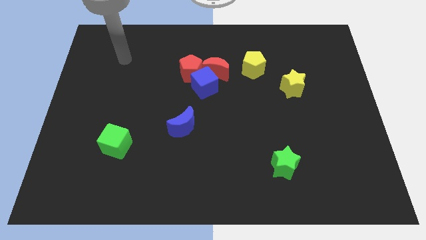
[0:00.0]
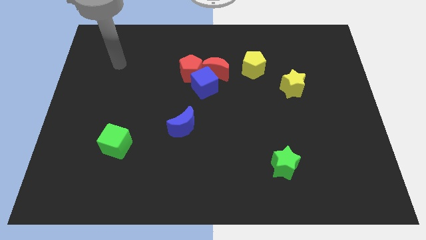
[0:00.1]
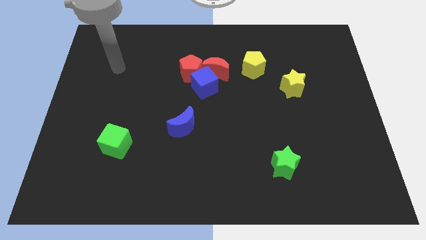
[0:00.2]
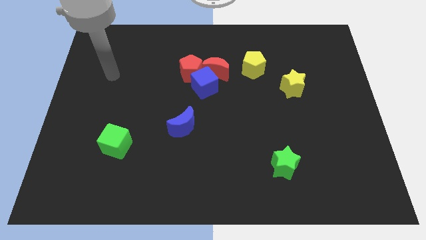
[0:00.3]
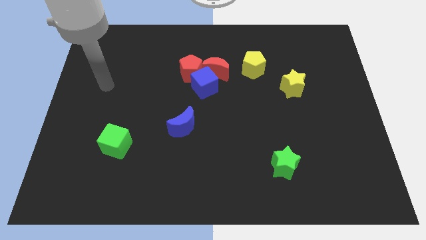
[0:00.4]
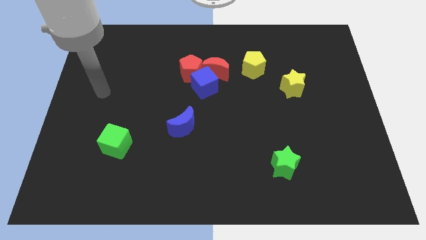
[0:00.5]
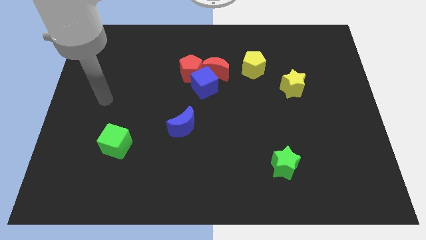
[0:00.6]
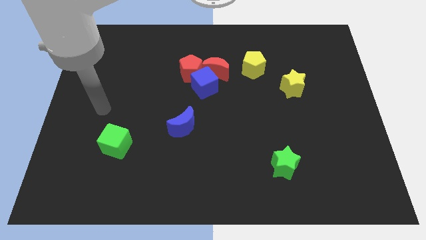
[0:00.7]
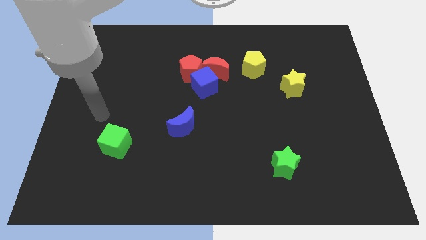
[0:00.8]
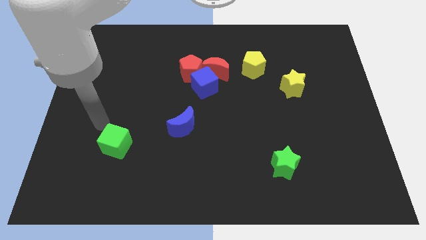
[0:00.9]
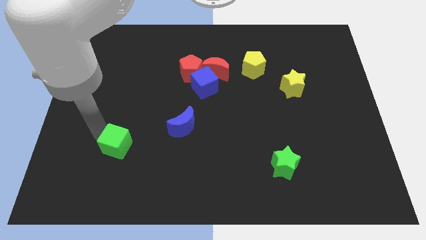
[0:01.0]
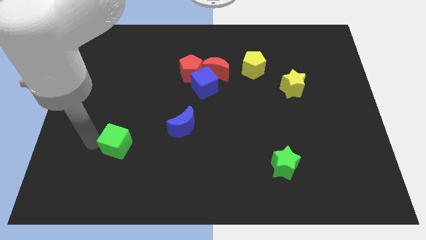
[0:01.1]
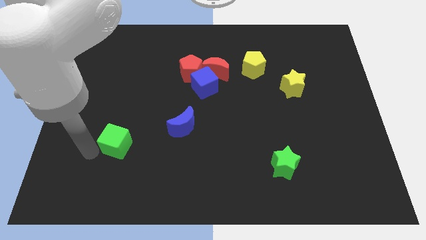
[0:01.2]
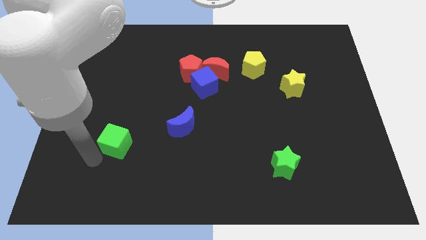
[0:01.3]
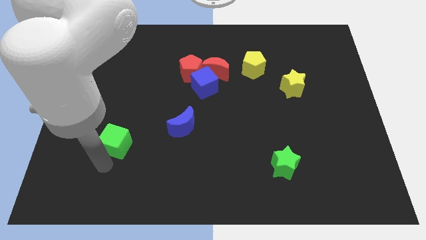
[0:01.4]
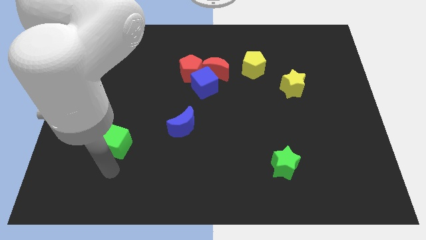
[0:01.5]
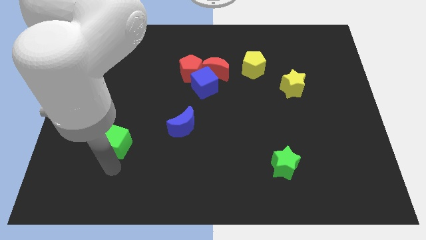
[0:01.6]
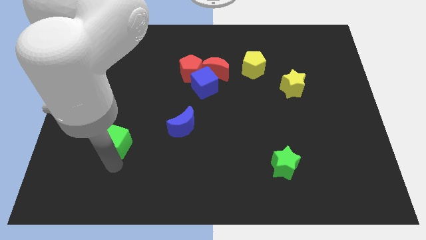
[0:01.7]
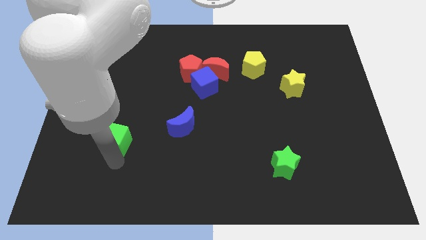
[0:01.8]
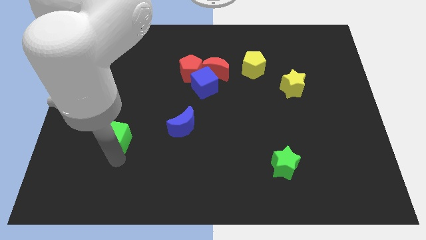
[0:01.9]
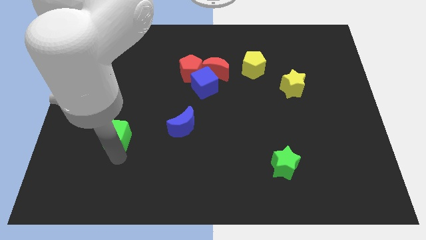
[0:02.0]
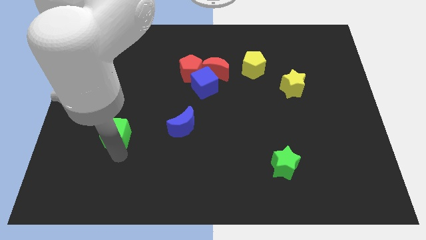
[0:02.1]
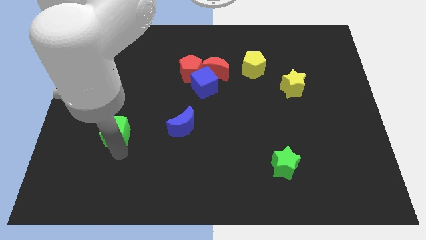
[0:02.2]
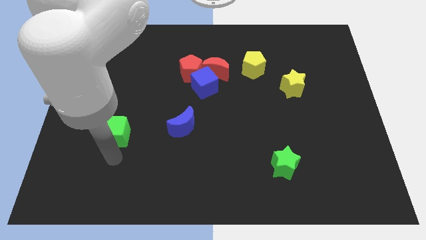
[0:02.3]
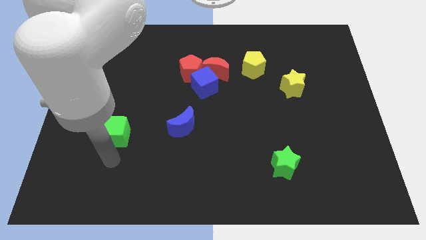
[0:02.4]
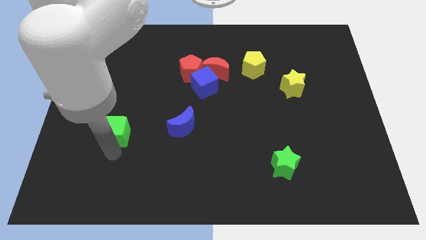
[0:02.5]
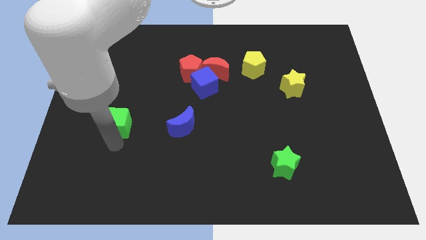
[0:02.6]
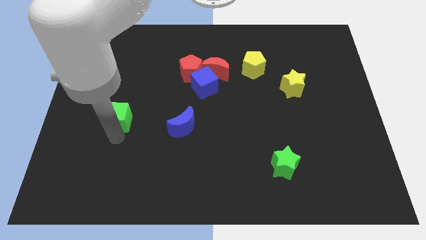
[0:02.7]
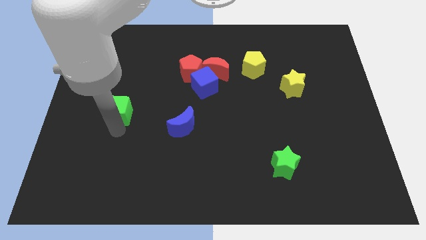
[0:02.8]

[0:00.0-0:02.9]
slide the green cube upwards a little bit

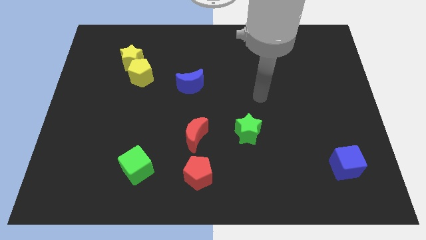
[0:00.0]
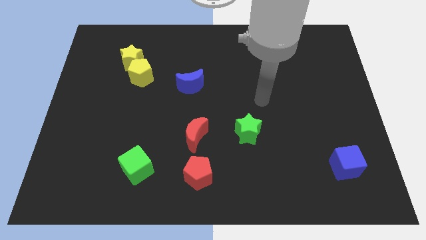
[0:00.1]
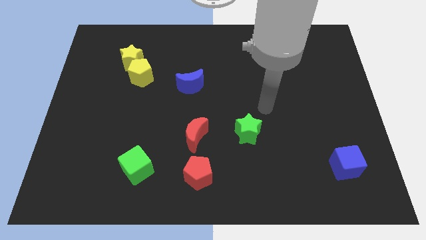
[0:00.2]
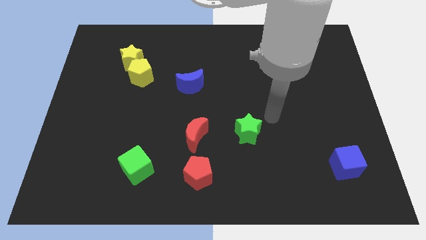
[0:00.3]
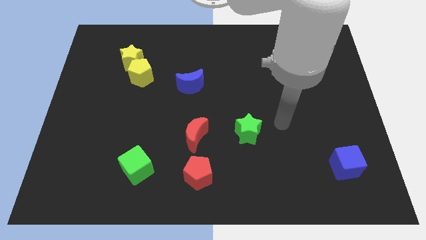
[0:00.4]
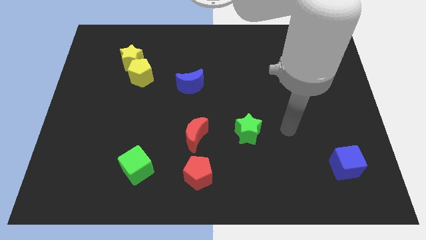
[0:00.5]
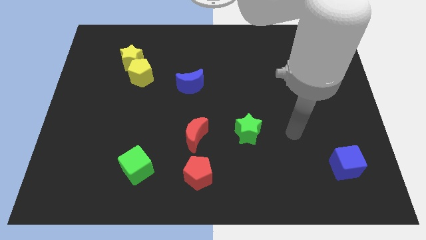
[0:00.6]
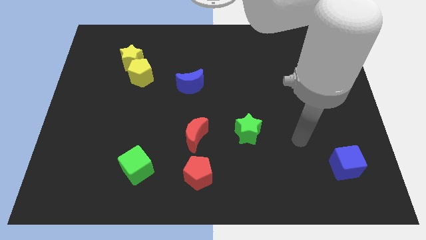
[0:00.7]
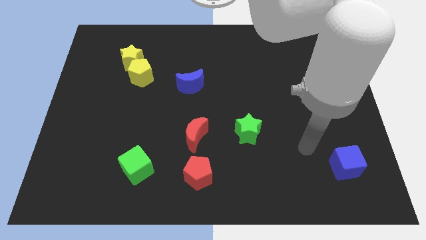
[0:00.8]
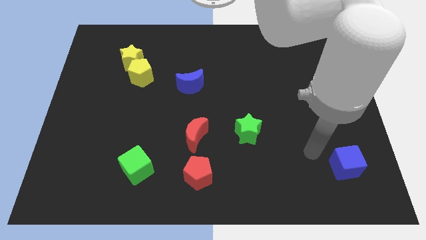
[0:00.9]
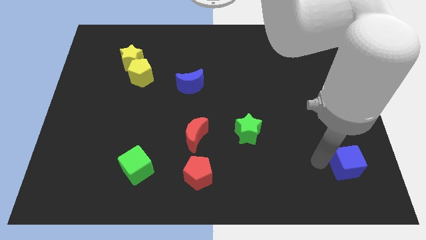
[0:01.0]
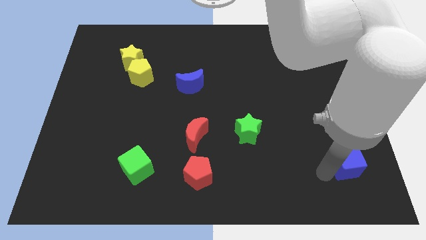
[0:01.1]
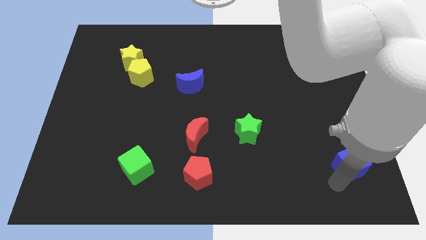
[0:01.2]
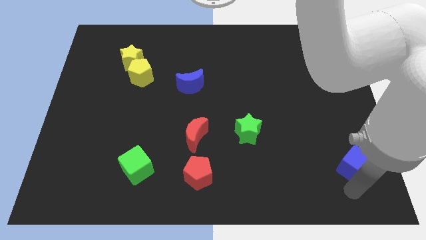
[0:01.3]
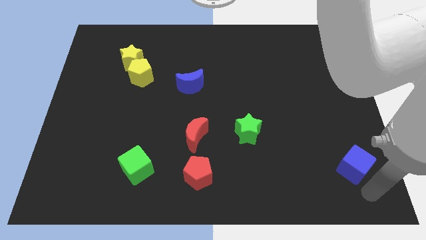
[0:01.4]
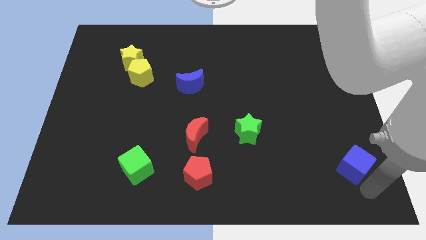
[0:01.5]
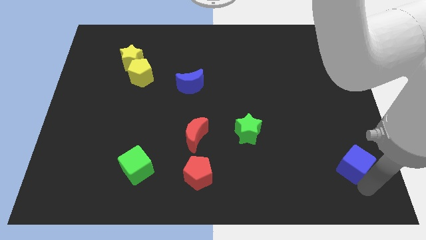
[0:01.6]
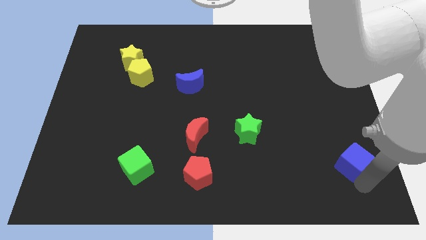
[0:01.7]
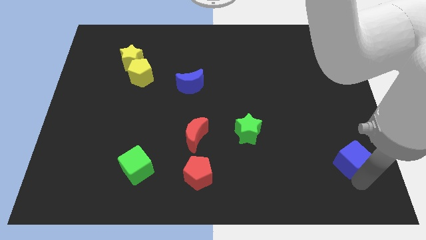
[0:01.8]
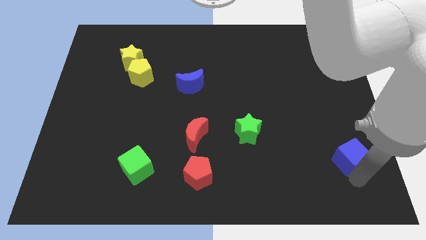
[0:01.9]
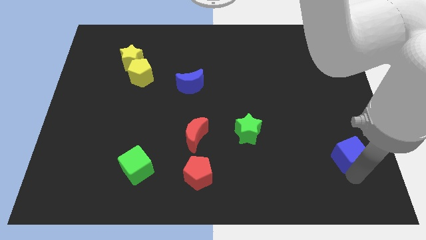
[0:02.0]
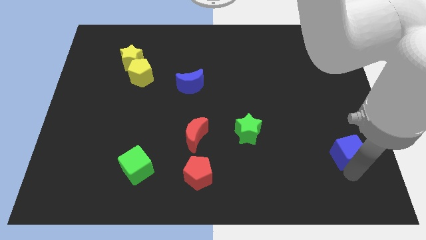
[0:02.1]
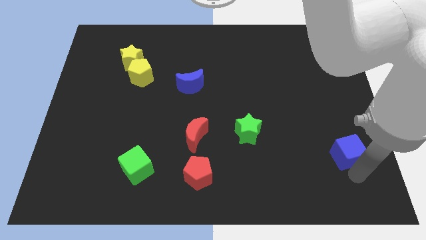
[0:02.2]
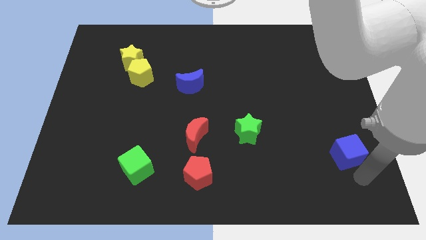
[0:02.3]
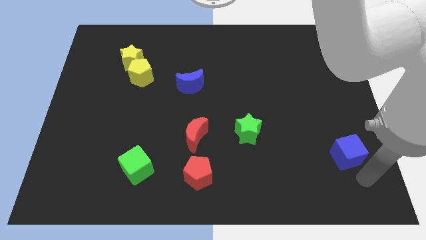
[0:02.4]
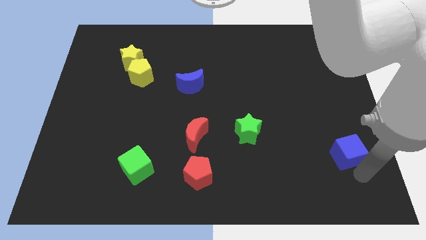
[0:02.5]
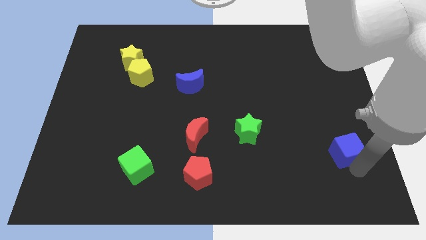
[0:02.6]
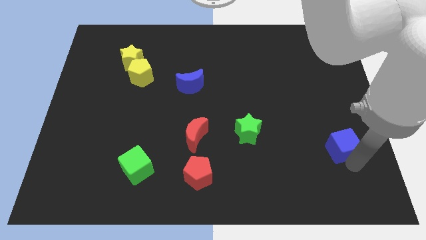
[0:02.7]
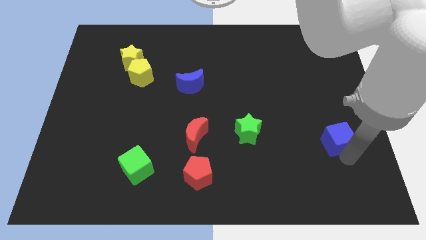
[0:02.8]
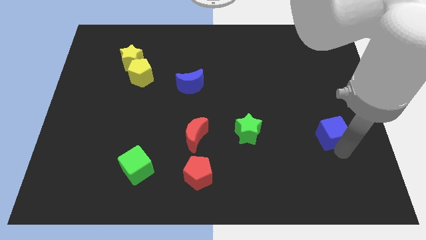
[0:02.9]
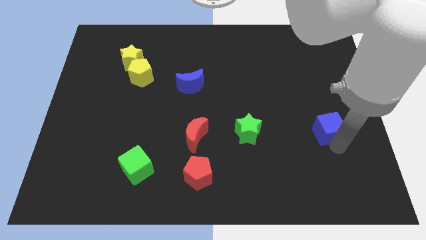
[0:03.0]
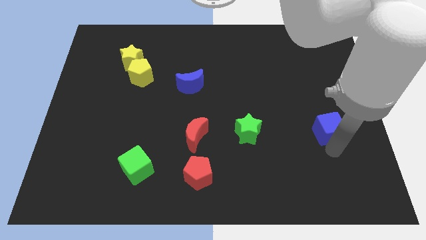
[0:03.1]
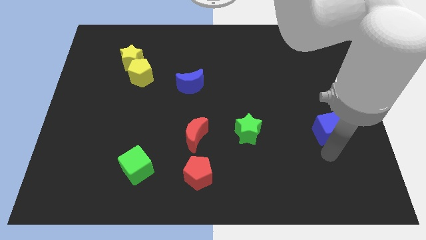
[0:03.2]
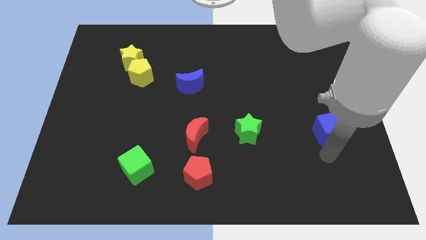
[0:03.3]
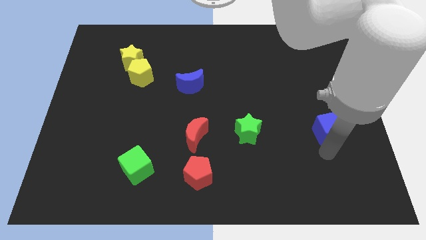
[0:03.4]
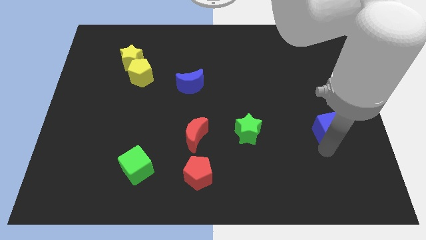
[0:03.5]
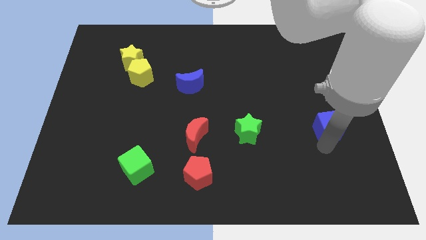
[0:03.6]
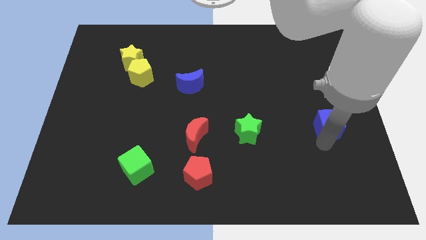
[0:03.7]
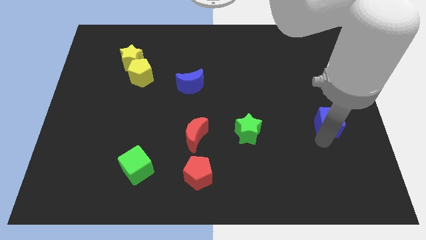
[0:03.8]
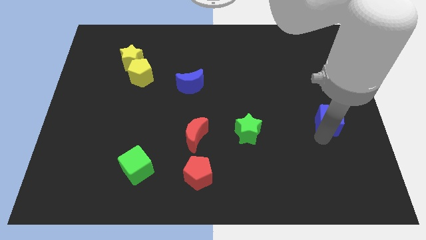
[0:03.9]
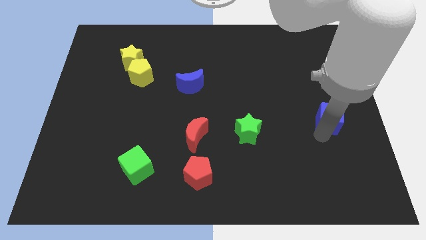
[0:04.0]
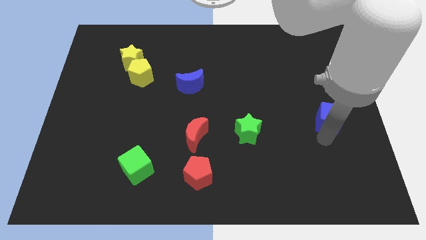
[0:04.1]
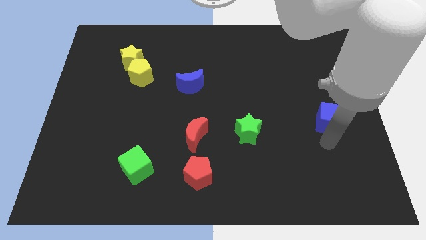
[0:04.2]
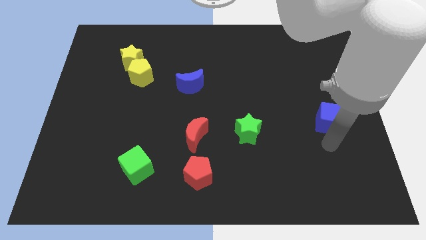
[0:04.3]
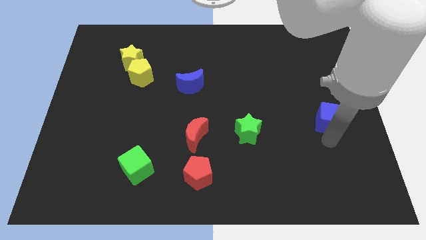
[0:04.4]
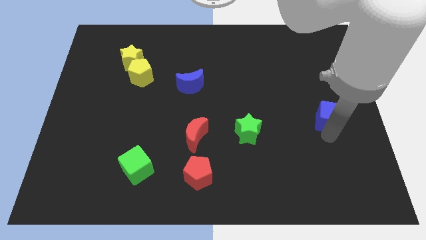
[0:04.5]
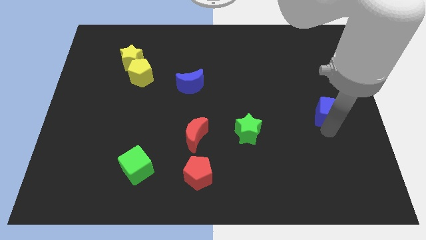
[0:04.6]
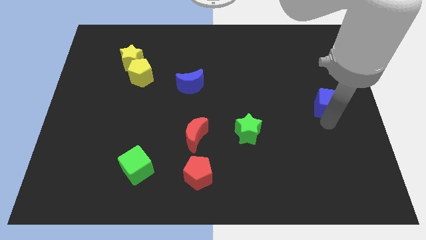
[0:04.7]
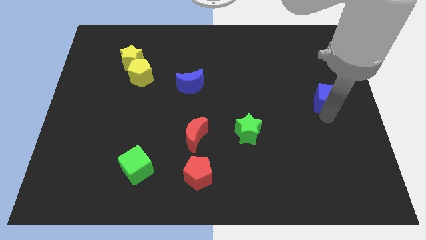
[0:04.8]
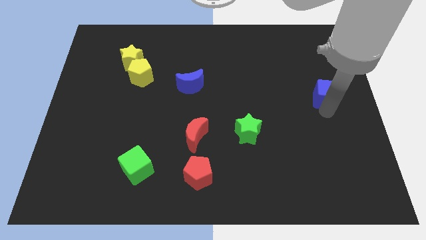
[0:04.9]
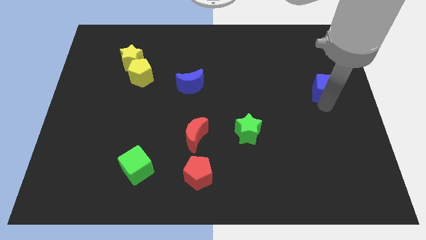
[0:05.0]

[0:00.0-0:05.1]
slide the blue cube up

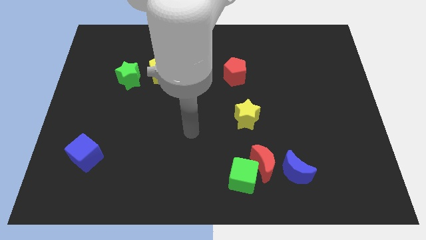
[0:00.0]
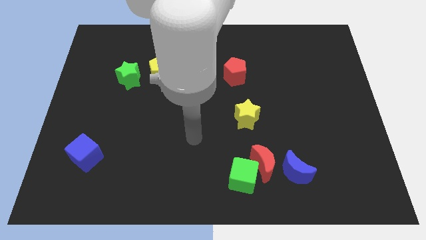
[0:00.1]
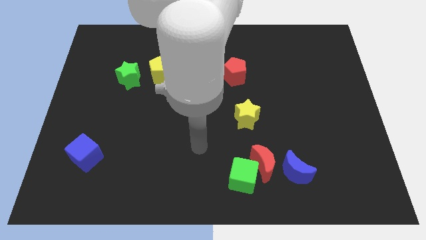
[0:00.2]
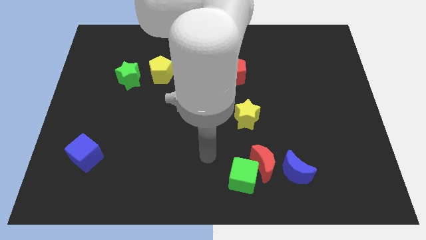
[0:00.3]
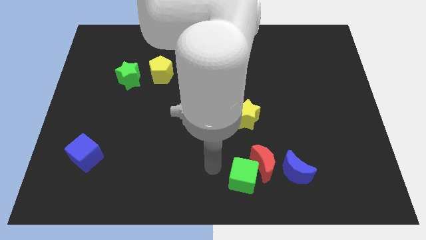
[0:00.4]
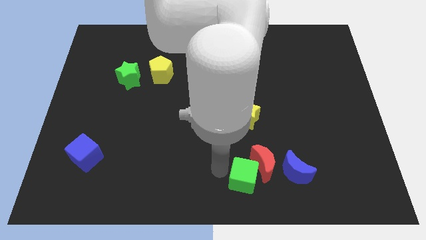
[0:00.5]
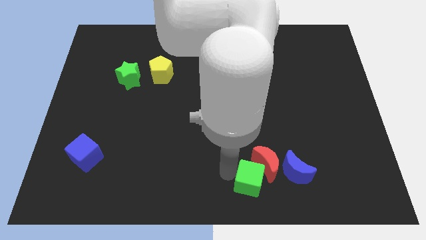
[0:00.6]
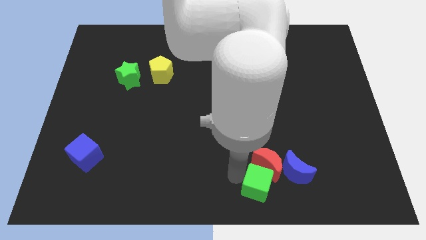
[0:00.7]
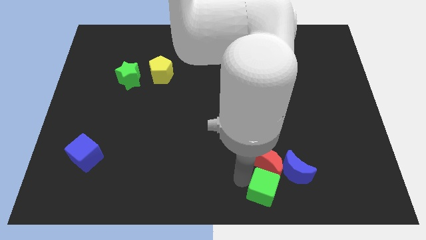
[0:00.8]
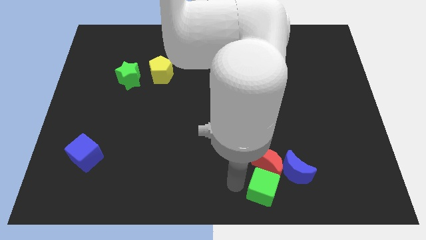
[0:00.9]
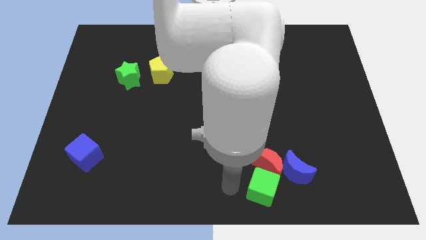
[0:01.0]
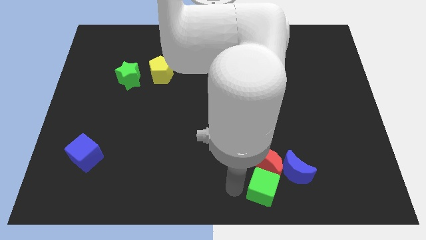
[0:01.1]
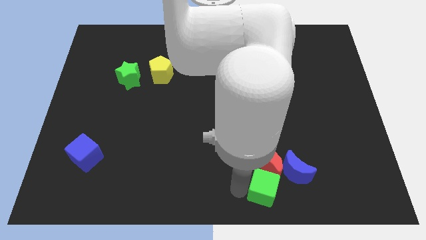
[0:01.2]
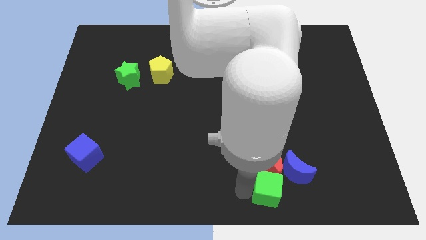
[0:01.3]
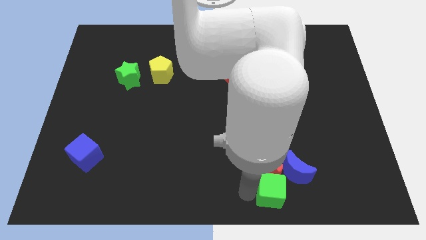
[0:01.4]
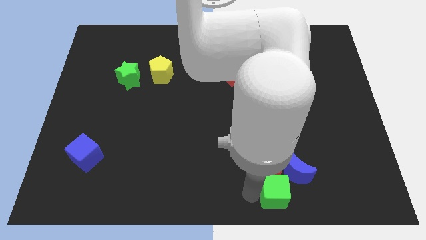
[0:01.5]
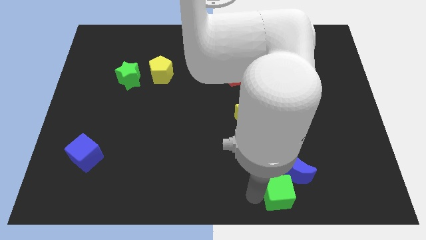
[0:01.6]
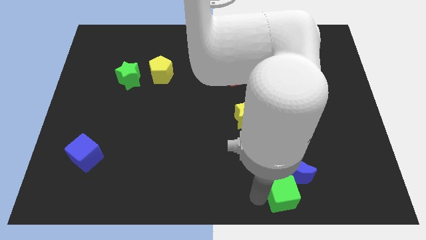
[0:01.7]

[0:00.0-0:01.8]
slightly slide the green cube to the right
